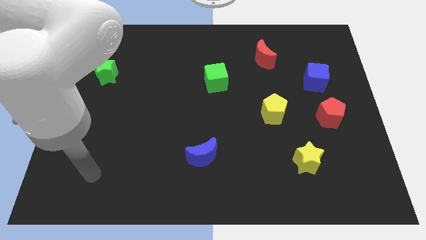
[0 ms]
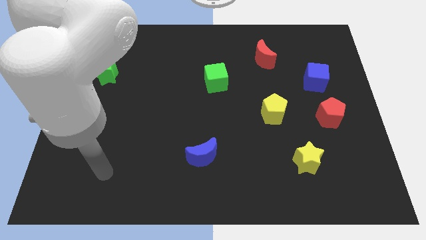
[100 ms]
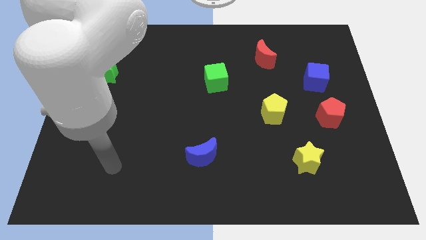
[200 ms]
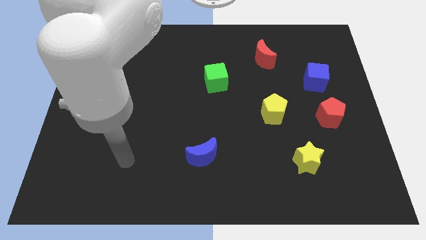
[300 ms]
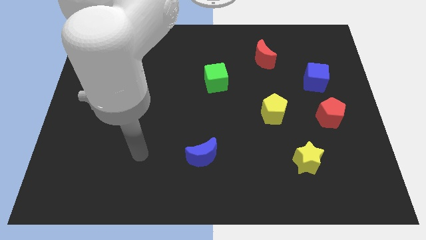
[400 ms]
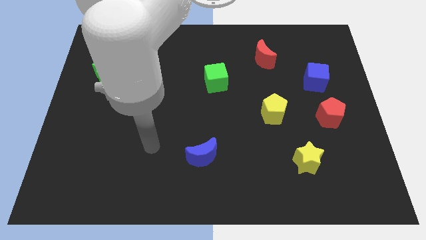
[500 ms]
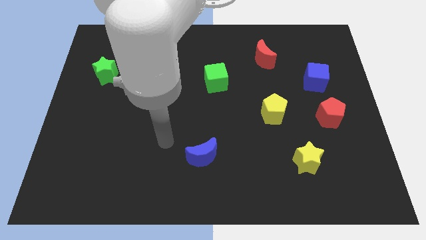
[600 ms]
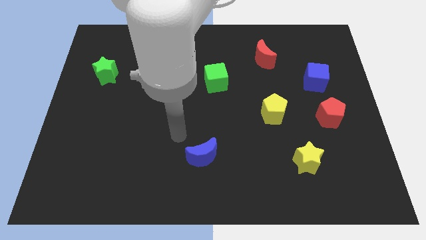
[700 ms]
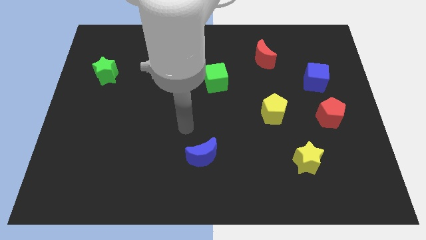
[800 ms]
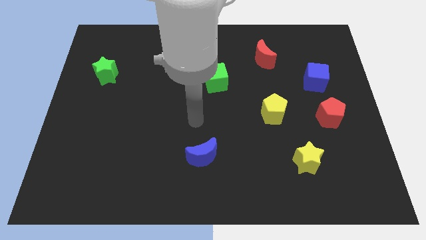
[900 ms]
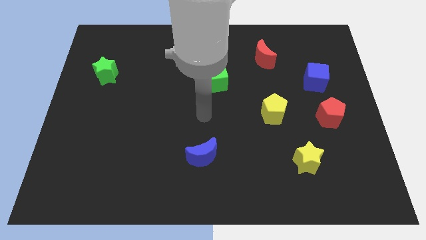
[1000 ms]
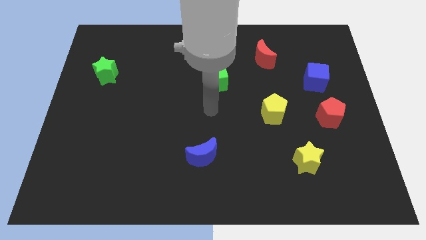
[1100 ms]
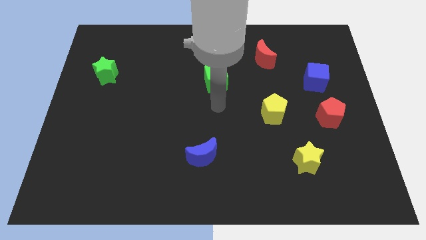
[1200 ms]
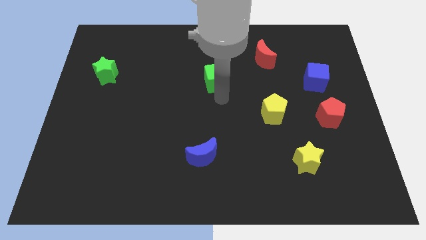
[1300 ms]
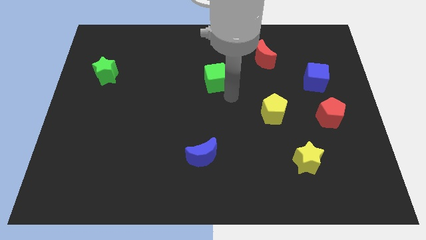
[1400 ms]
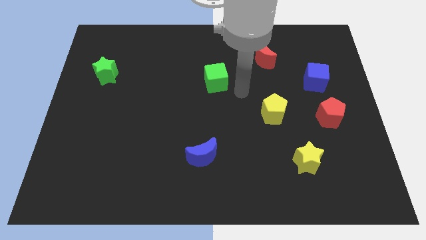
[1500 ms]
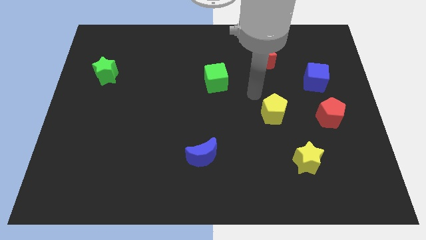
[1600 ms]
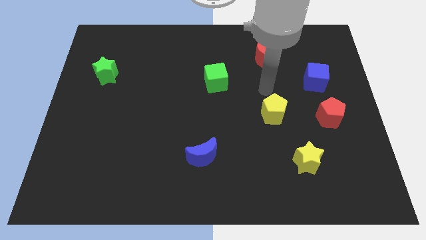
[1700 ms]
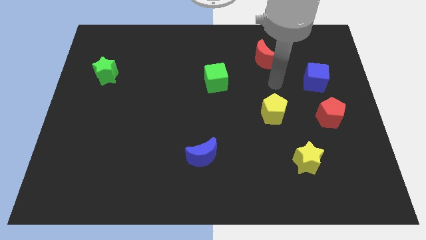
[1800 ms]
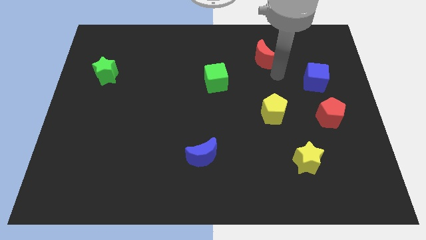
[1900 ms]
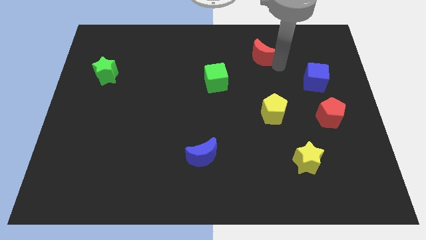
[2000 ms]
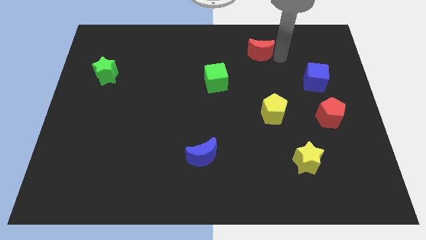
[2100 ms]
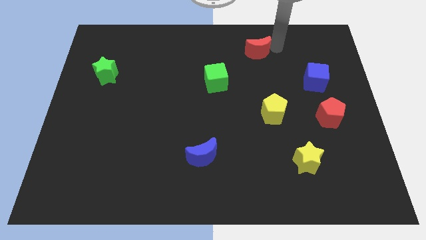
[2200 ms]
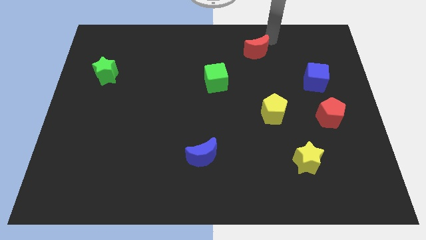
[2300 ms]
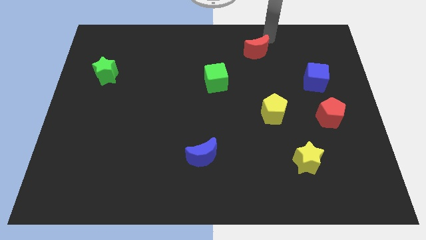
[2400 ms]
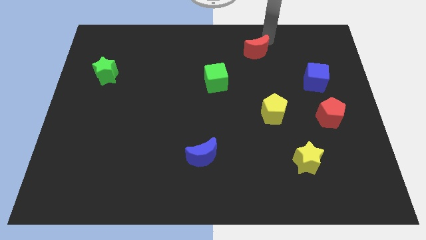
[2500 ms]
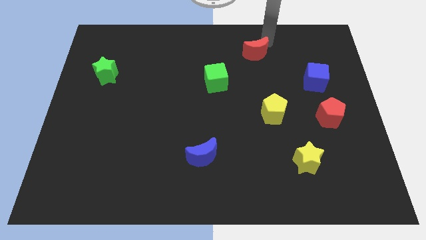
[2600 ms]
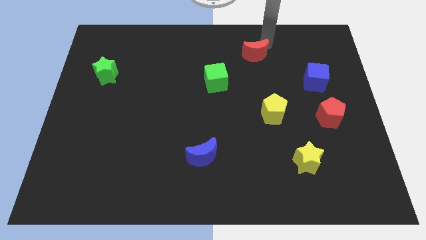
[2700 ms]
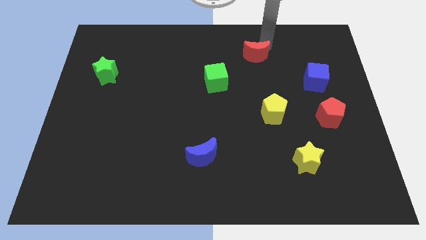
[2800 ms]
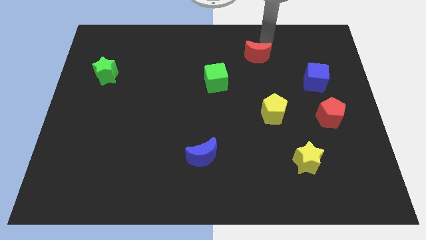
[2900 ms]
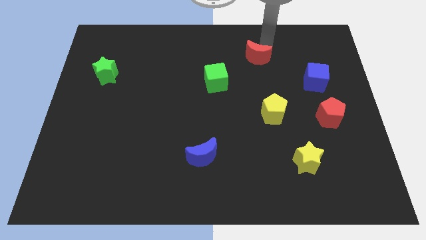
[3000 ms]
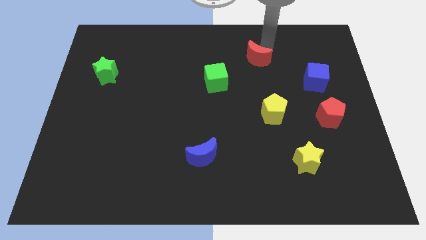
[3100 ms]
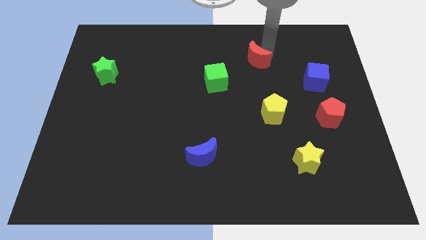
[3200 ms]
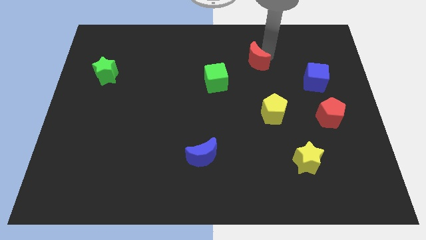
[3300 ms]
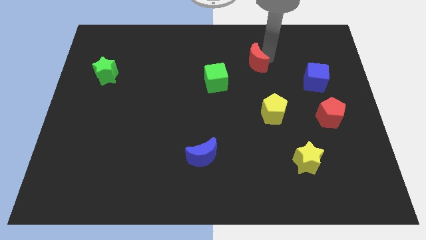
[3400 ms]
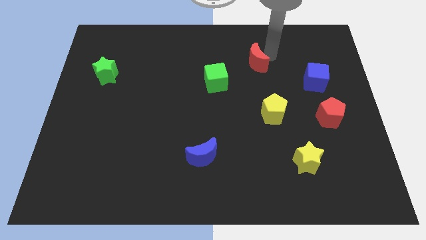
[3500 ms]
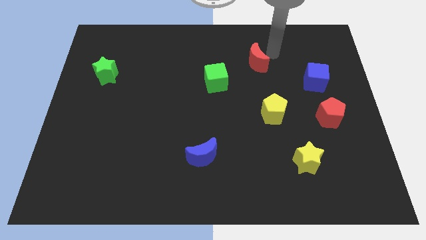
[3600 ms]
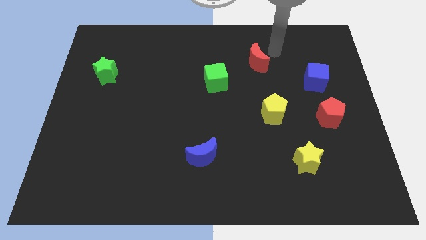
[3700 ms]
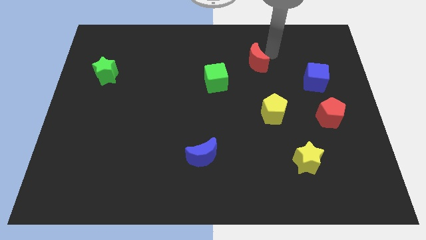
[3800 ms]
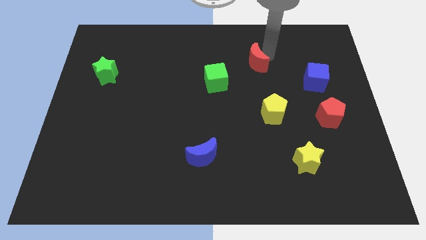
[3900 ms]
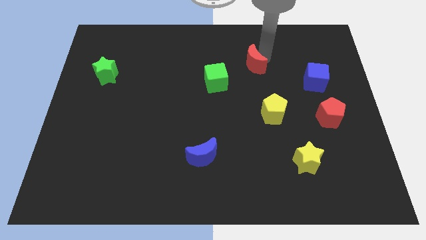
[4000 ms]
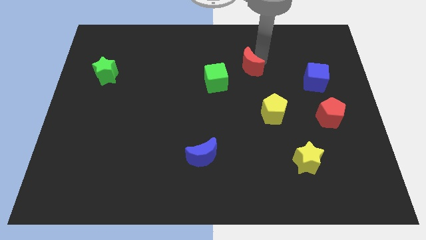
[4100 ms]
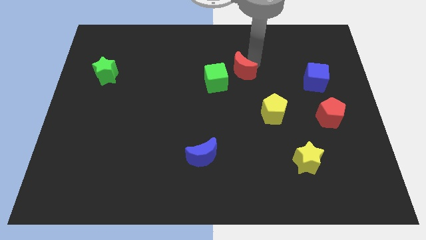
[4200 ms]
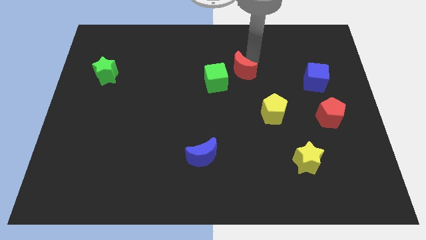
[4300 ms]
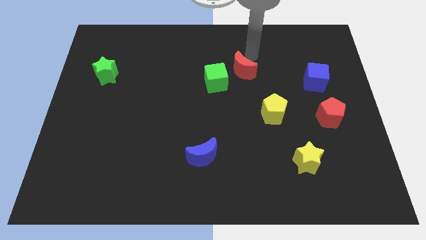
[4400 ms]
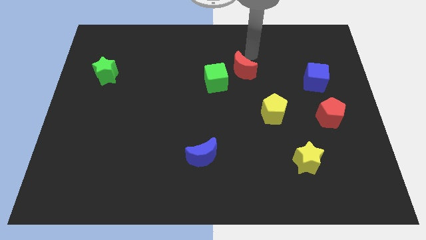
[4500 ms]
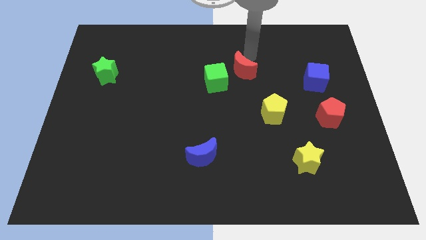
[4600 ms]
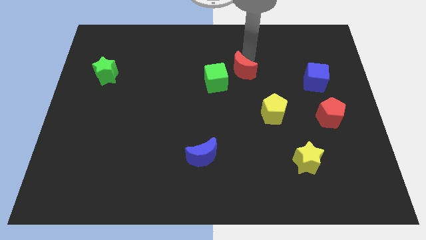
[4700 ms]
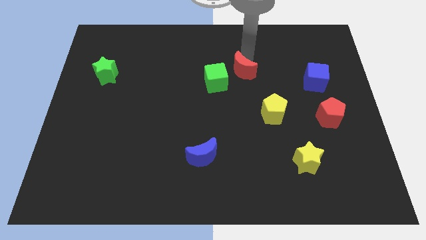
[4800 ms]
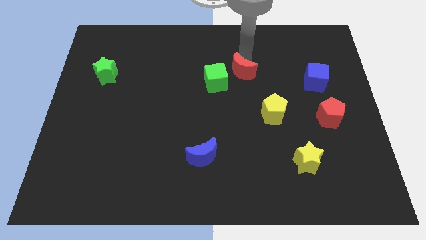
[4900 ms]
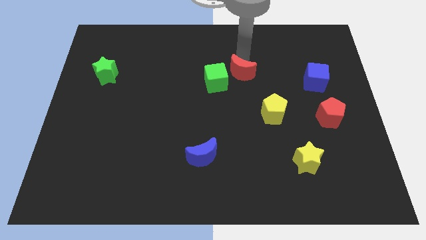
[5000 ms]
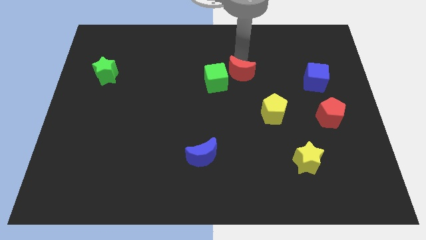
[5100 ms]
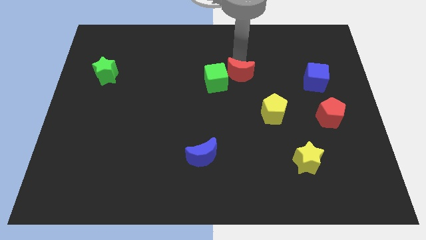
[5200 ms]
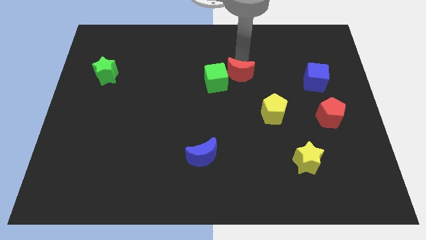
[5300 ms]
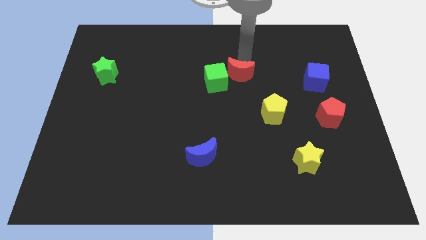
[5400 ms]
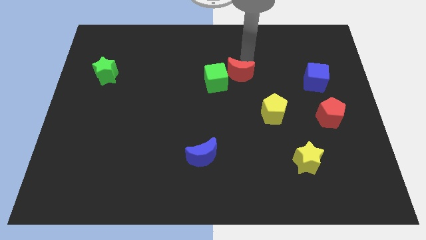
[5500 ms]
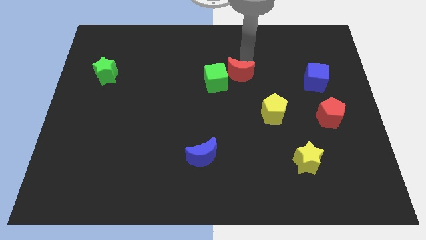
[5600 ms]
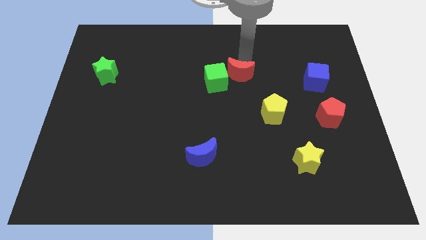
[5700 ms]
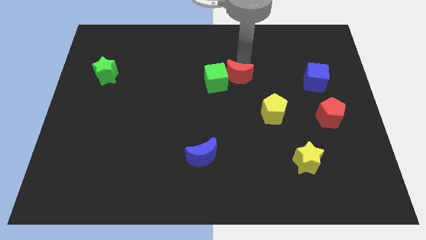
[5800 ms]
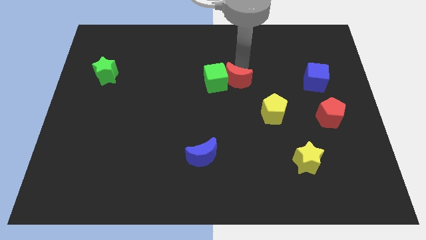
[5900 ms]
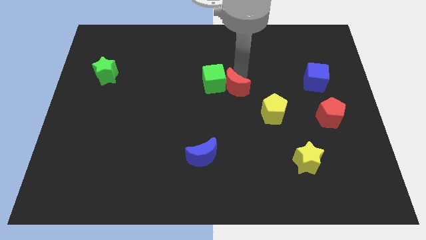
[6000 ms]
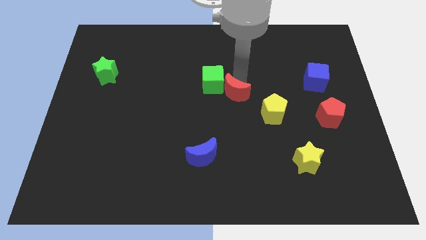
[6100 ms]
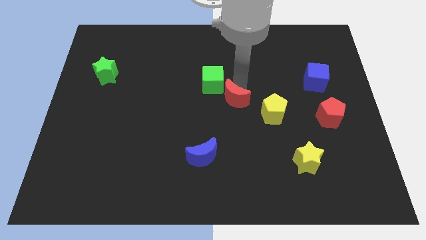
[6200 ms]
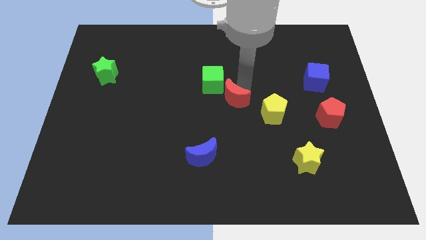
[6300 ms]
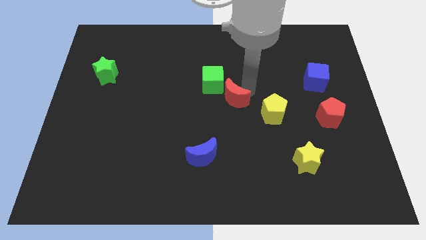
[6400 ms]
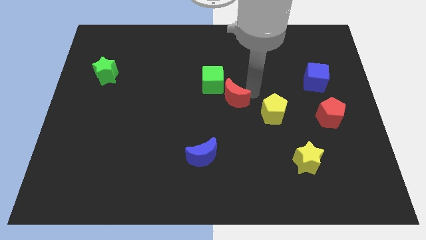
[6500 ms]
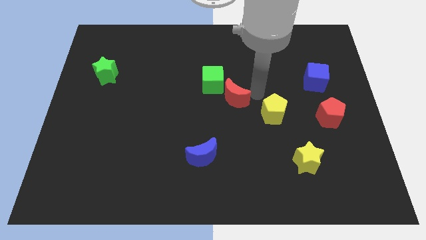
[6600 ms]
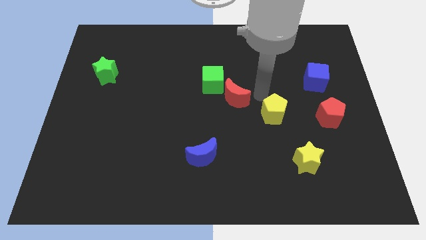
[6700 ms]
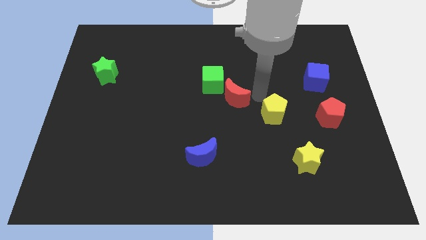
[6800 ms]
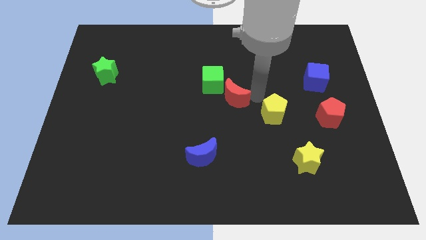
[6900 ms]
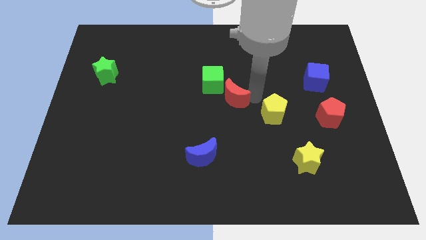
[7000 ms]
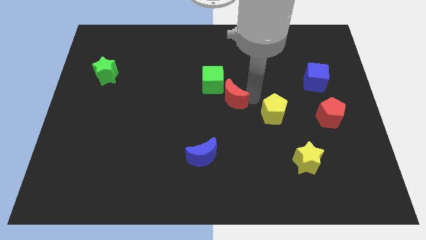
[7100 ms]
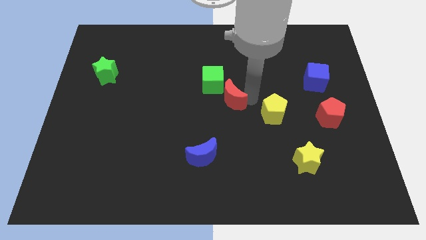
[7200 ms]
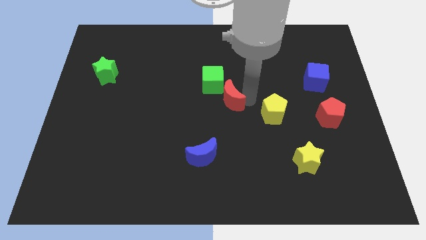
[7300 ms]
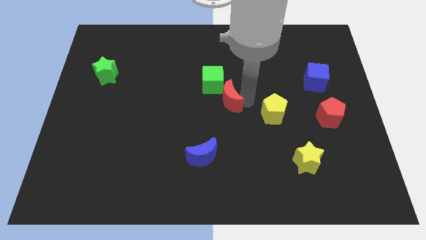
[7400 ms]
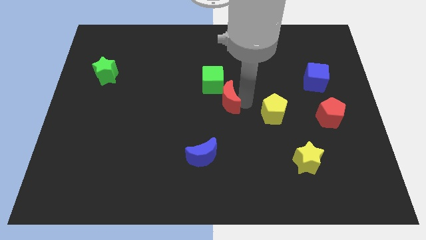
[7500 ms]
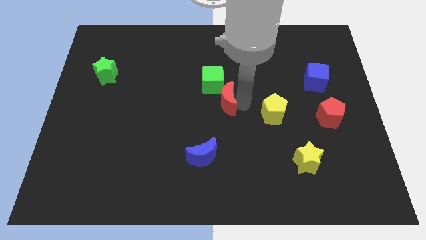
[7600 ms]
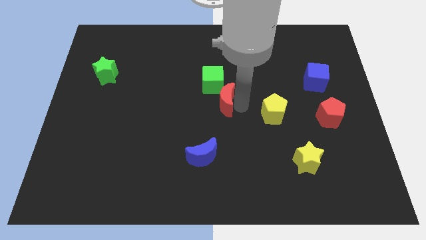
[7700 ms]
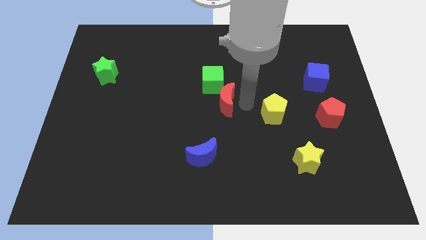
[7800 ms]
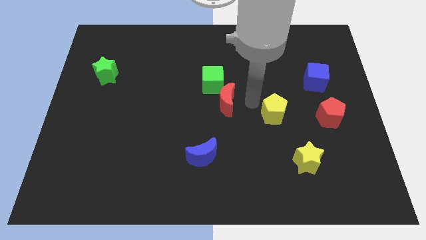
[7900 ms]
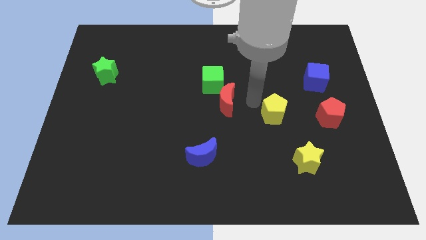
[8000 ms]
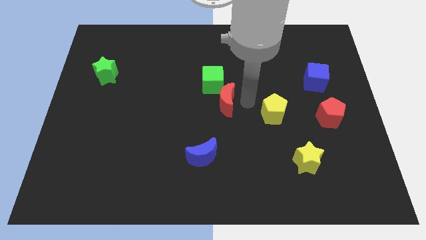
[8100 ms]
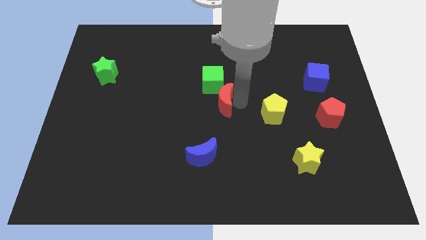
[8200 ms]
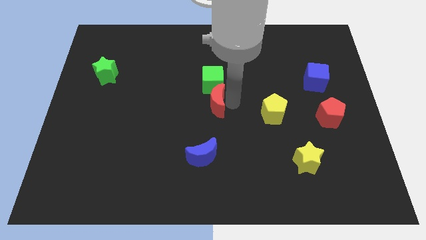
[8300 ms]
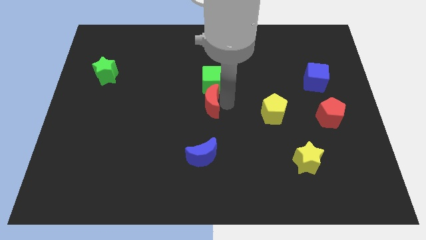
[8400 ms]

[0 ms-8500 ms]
move the red moon downwards and to the left
